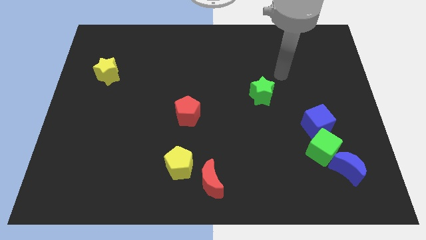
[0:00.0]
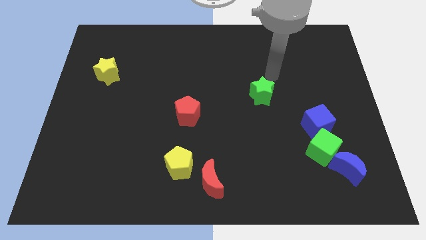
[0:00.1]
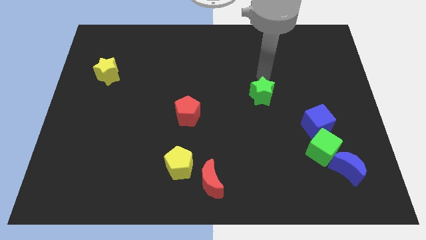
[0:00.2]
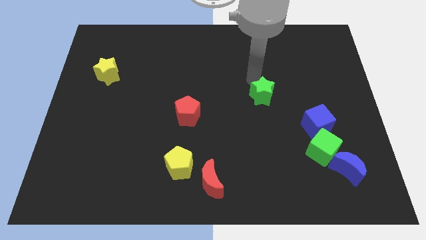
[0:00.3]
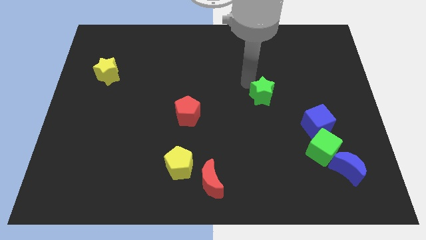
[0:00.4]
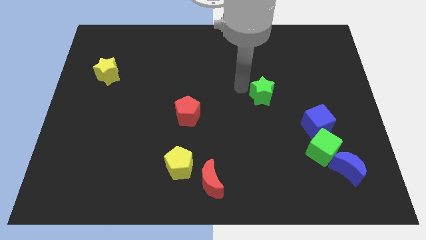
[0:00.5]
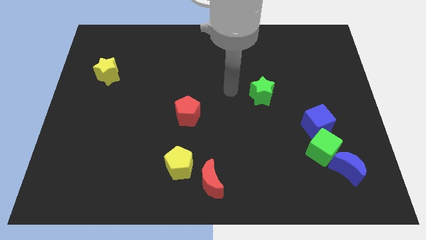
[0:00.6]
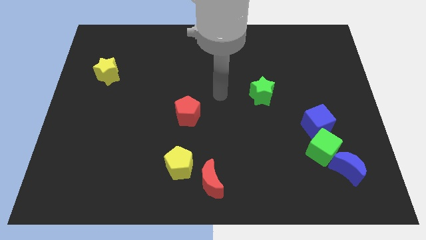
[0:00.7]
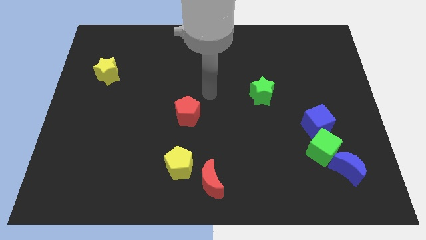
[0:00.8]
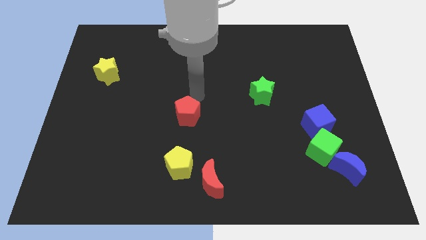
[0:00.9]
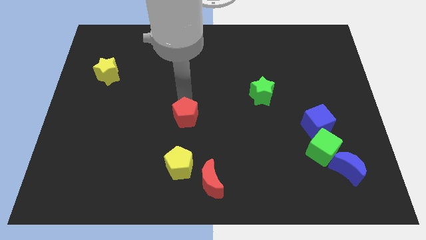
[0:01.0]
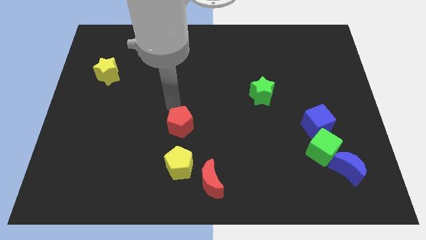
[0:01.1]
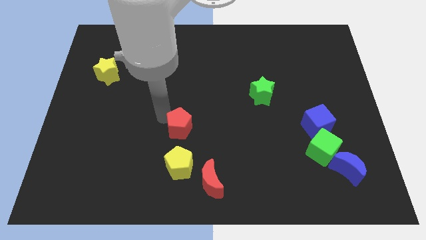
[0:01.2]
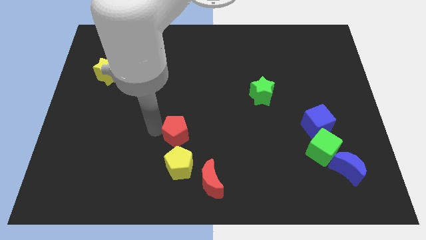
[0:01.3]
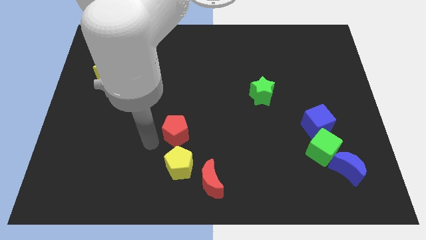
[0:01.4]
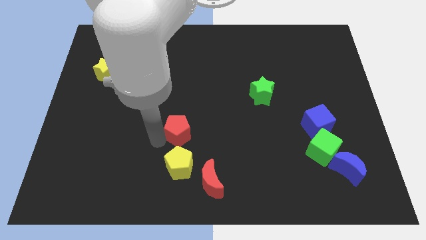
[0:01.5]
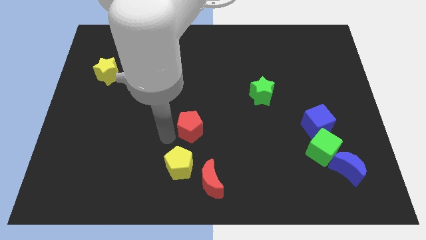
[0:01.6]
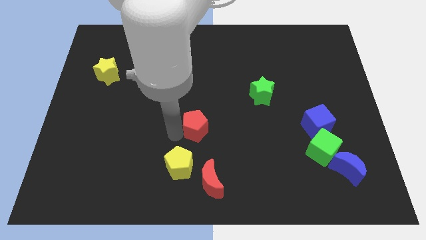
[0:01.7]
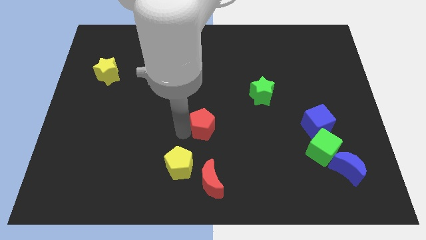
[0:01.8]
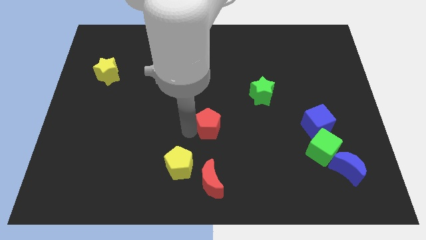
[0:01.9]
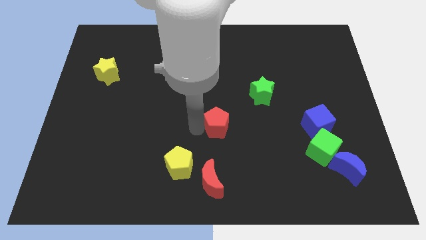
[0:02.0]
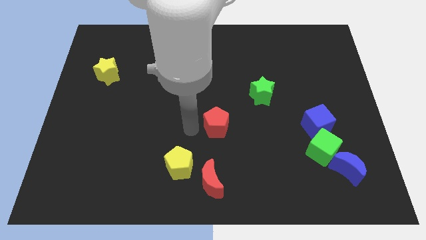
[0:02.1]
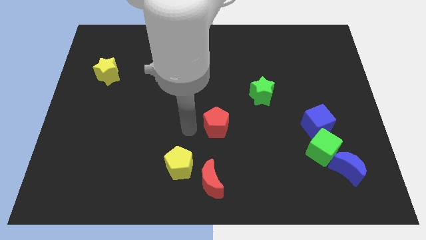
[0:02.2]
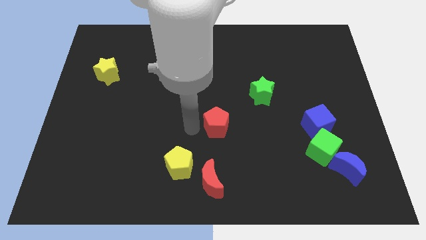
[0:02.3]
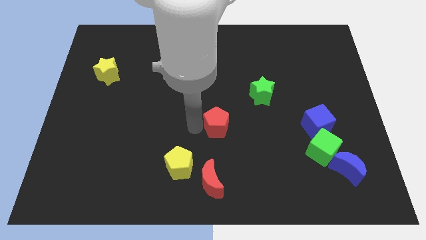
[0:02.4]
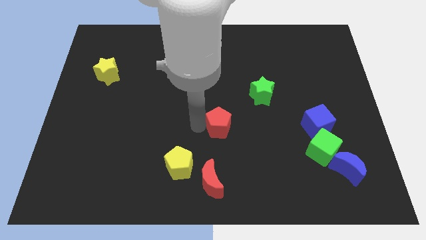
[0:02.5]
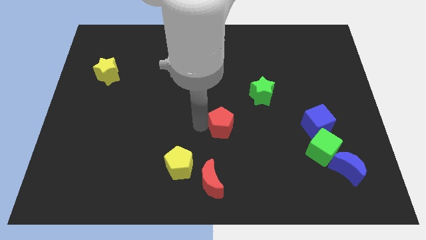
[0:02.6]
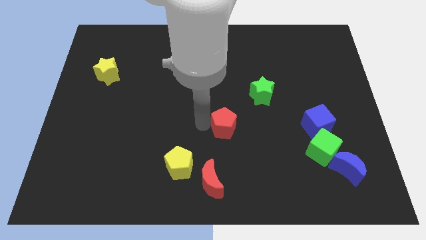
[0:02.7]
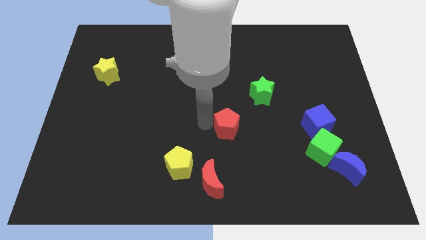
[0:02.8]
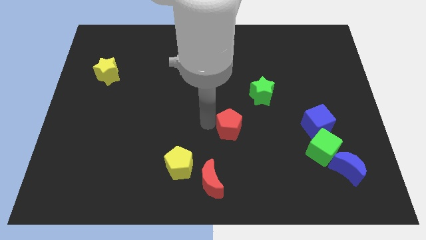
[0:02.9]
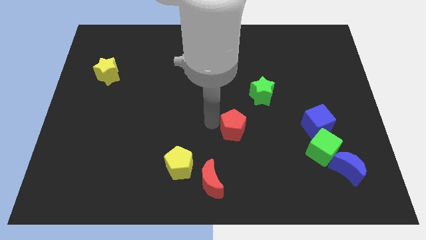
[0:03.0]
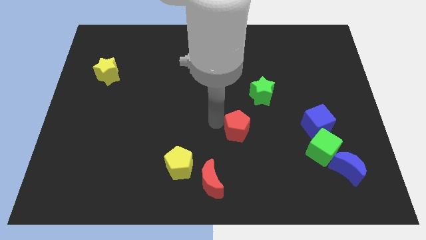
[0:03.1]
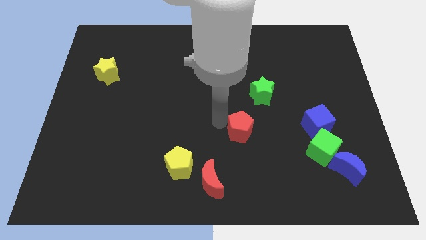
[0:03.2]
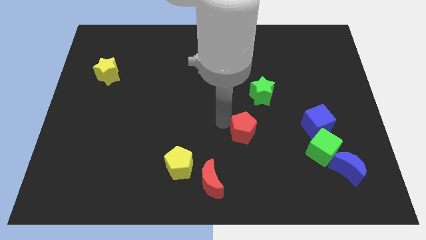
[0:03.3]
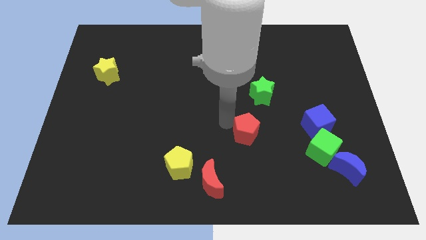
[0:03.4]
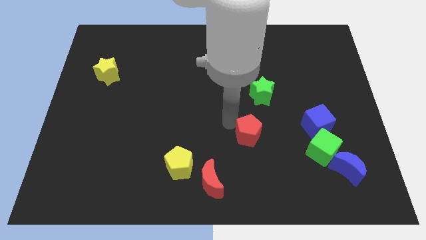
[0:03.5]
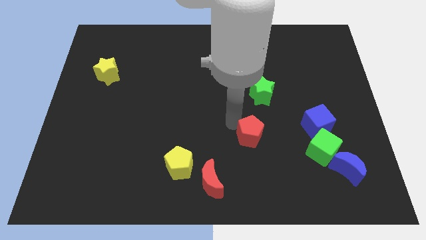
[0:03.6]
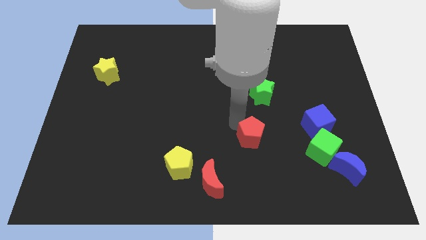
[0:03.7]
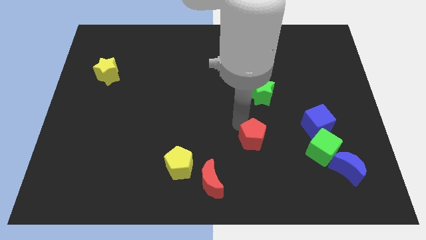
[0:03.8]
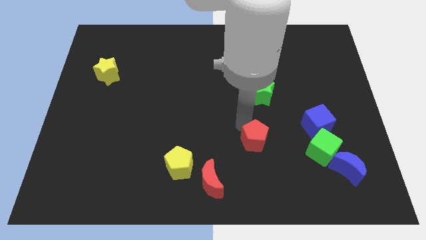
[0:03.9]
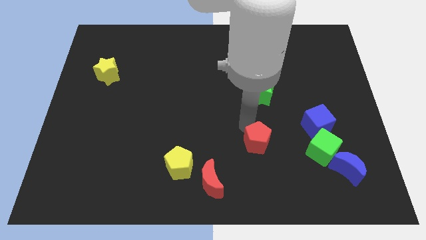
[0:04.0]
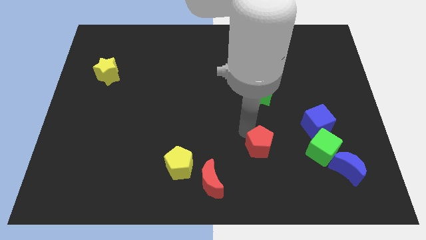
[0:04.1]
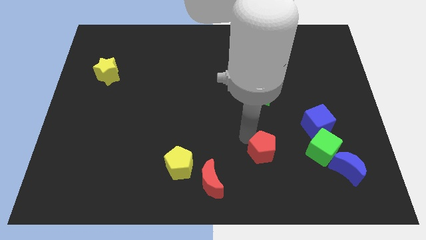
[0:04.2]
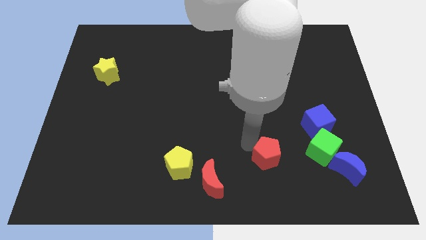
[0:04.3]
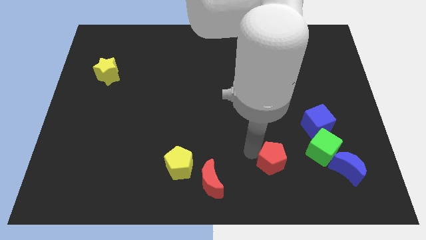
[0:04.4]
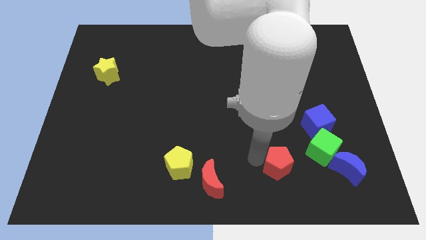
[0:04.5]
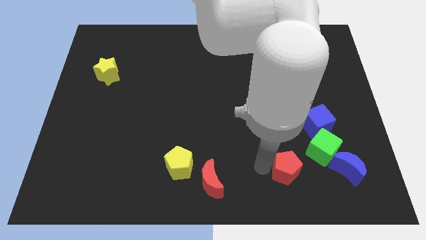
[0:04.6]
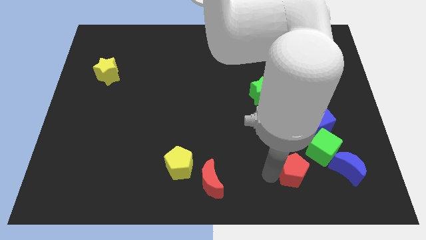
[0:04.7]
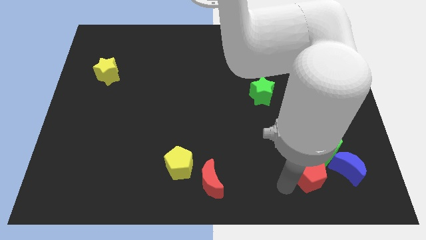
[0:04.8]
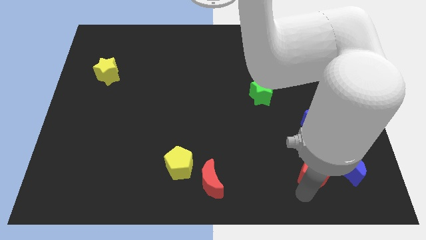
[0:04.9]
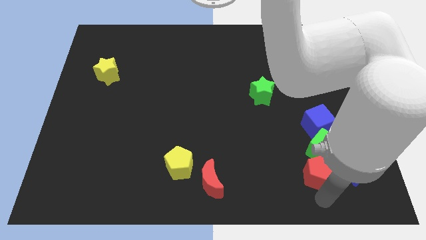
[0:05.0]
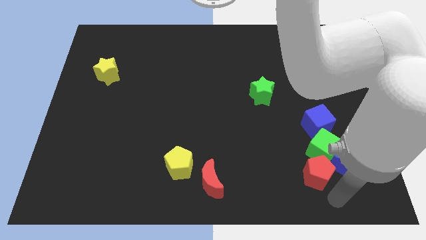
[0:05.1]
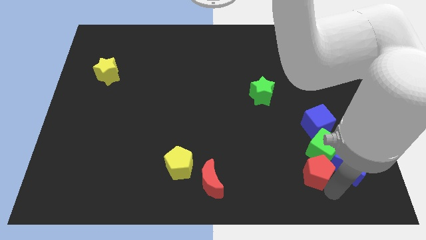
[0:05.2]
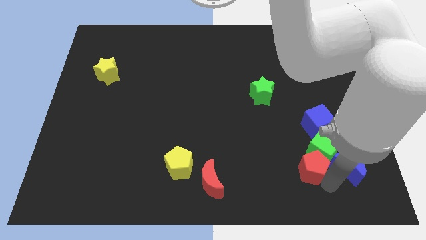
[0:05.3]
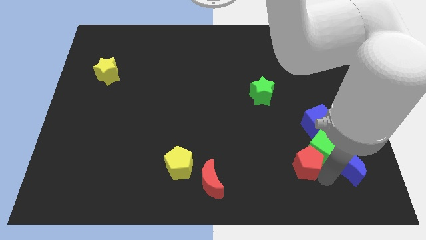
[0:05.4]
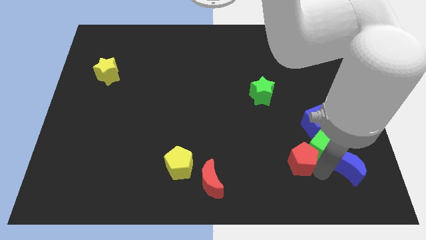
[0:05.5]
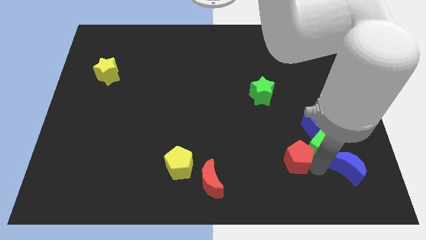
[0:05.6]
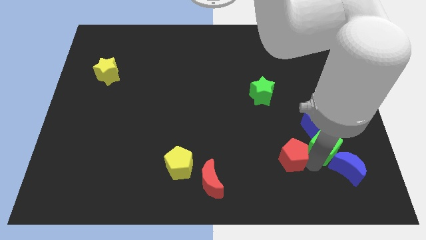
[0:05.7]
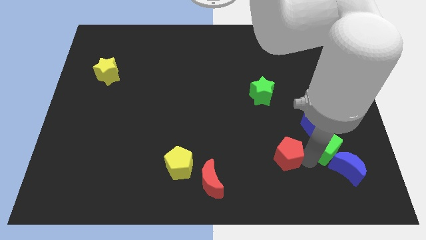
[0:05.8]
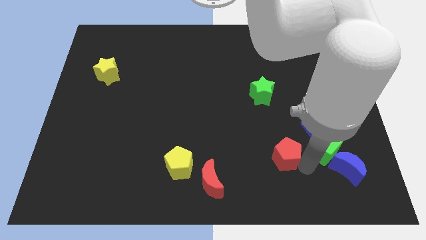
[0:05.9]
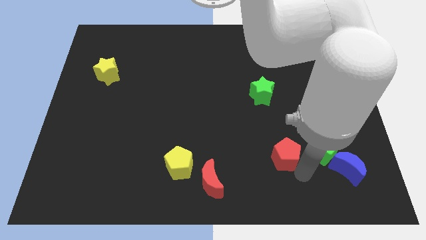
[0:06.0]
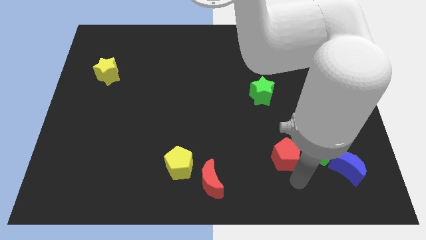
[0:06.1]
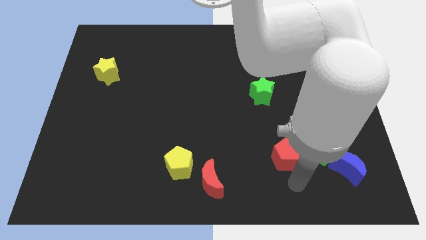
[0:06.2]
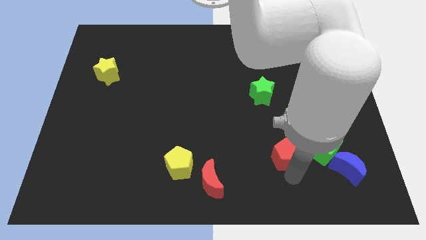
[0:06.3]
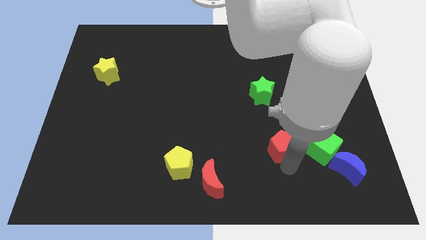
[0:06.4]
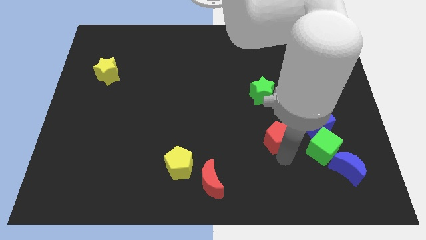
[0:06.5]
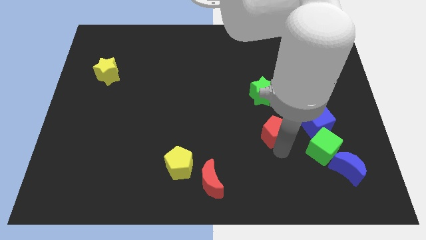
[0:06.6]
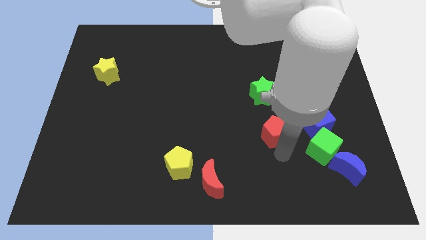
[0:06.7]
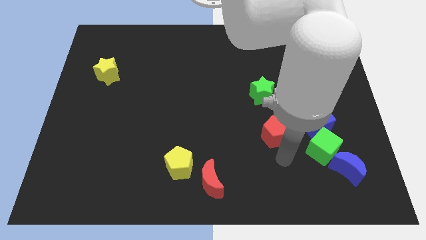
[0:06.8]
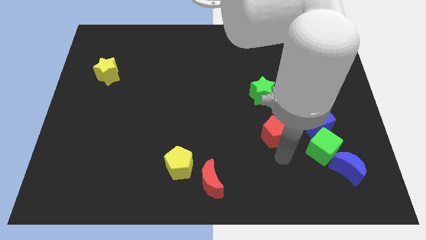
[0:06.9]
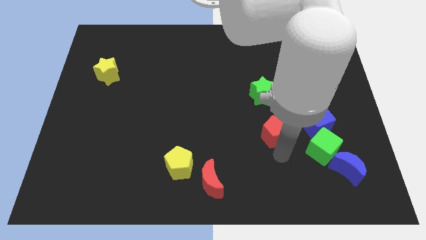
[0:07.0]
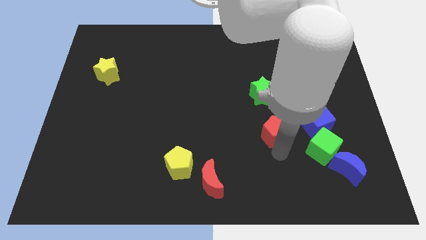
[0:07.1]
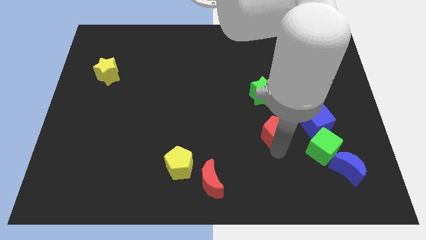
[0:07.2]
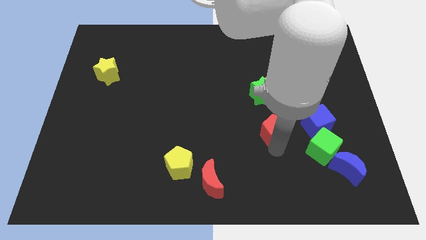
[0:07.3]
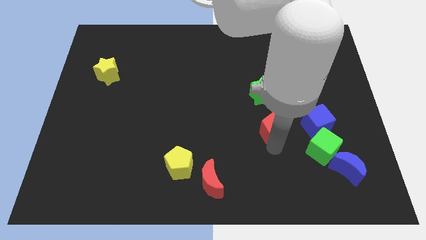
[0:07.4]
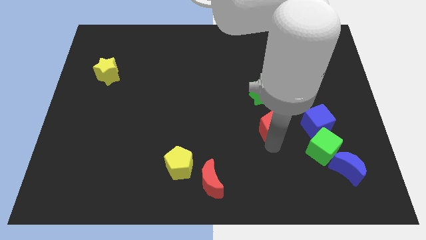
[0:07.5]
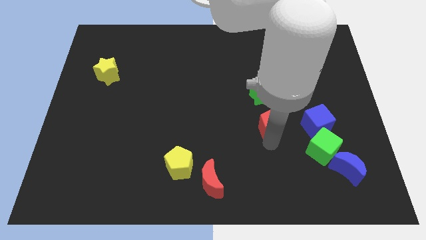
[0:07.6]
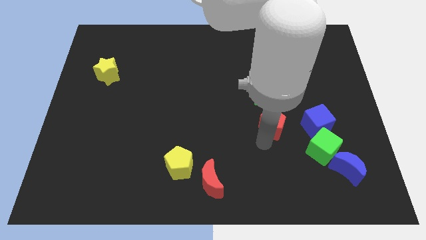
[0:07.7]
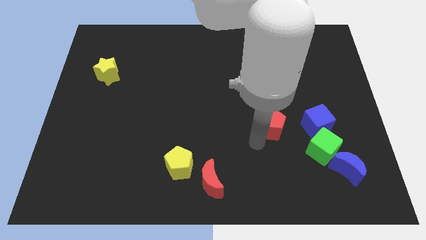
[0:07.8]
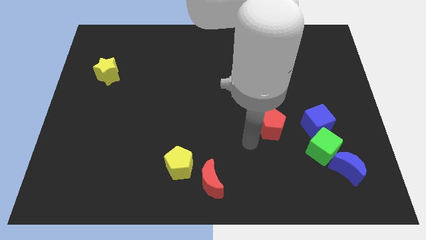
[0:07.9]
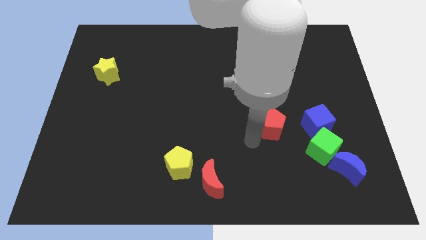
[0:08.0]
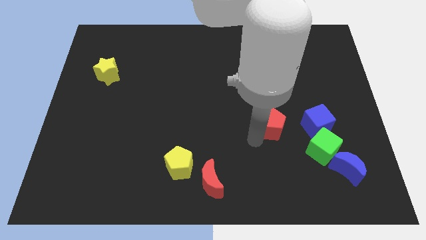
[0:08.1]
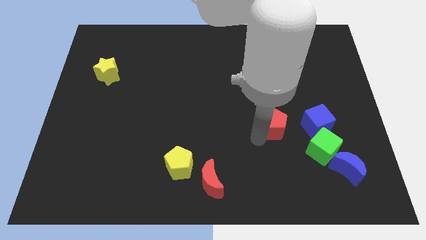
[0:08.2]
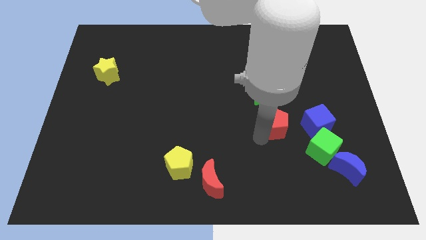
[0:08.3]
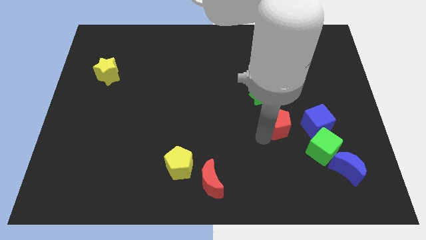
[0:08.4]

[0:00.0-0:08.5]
push the red pentagon right

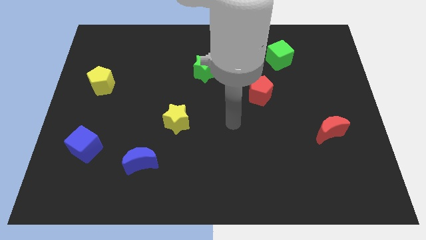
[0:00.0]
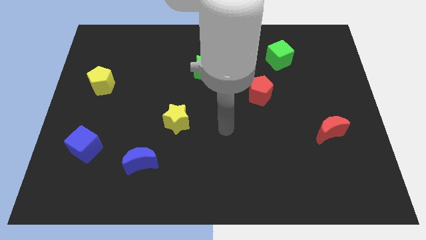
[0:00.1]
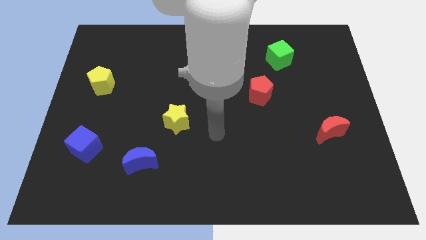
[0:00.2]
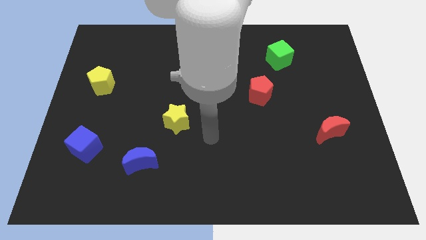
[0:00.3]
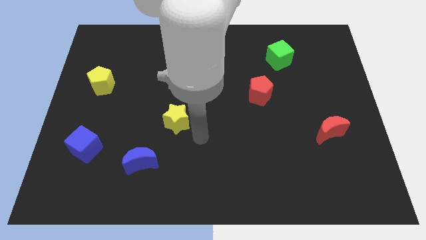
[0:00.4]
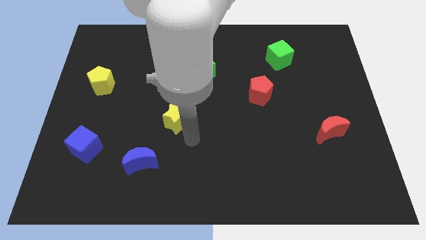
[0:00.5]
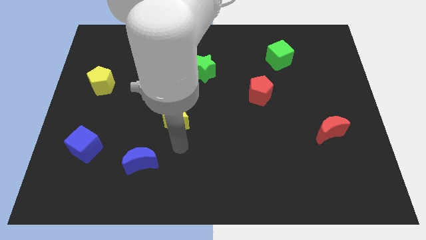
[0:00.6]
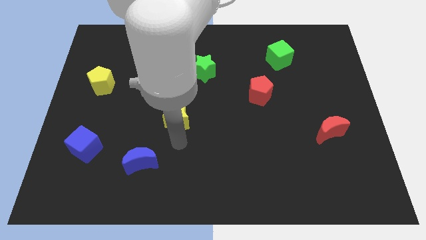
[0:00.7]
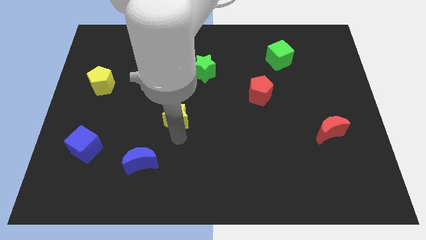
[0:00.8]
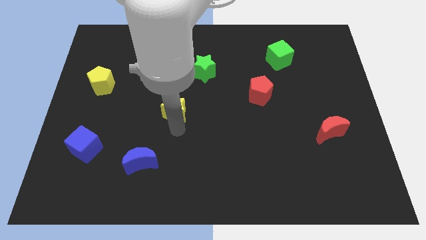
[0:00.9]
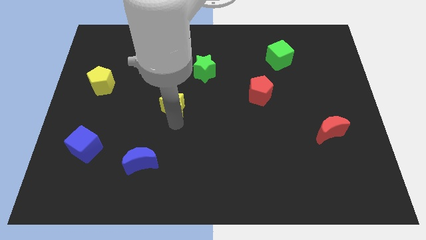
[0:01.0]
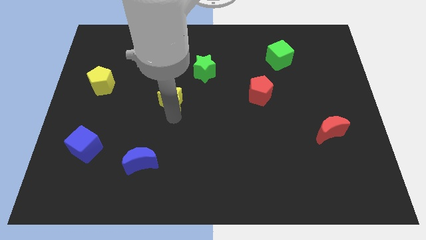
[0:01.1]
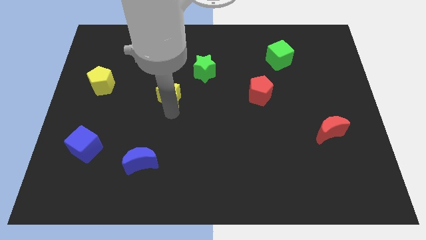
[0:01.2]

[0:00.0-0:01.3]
slightly slide the yellow star upwards
